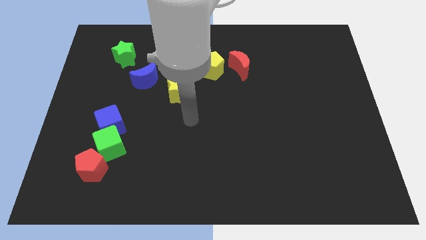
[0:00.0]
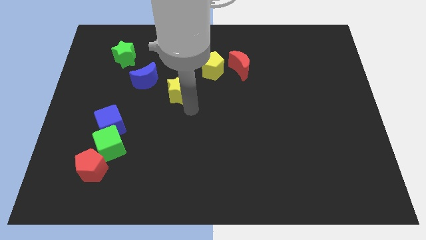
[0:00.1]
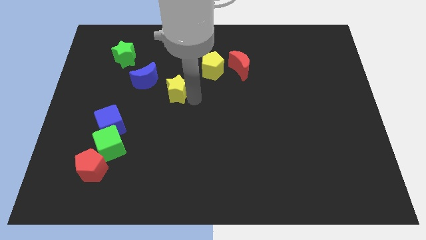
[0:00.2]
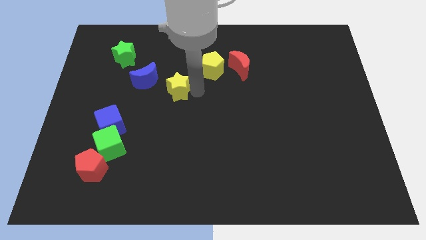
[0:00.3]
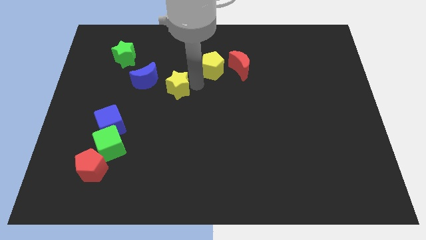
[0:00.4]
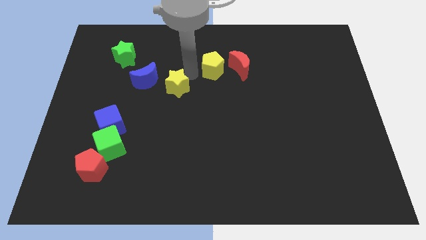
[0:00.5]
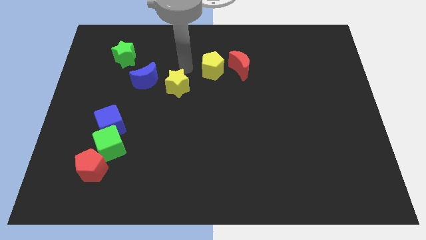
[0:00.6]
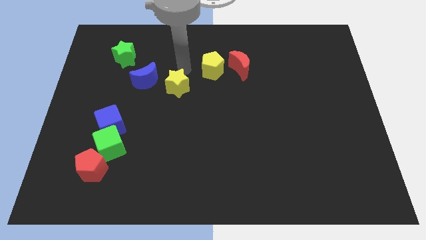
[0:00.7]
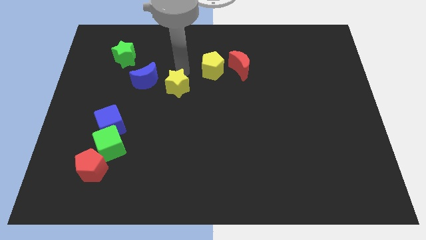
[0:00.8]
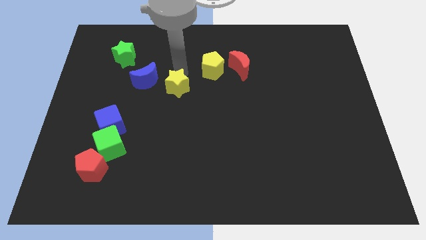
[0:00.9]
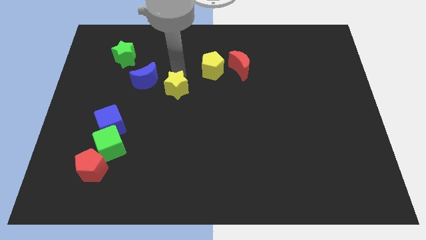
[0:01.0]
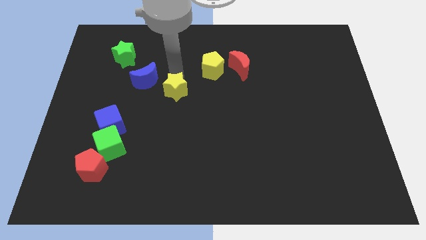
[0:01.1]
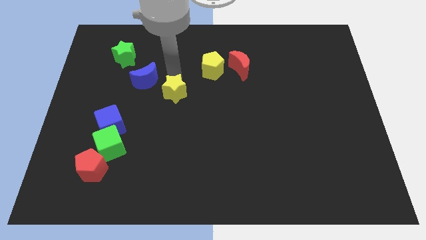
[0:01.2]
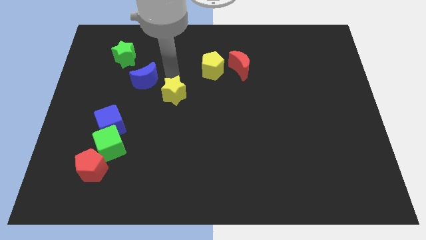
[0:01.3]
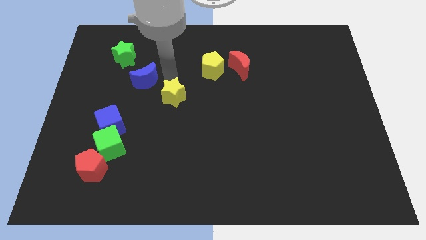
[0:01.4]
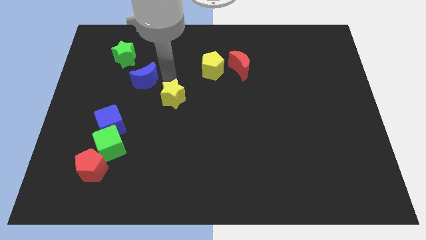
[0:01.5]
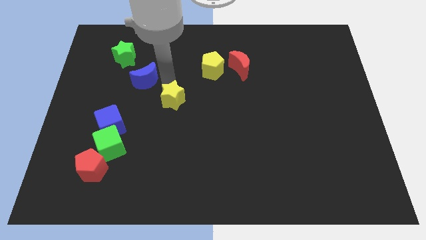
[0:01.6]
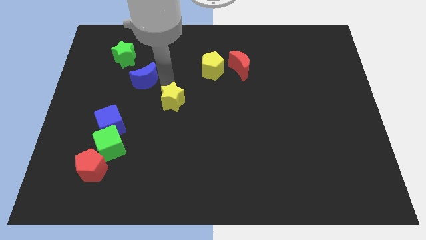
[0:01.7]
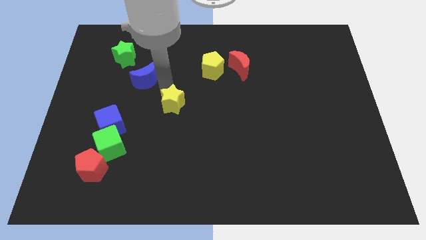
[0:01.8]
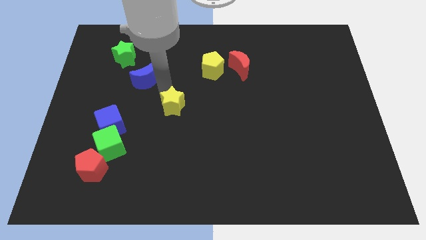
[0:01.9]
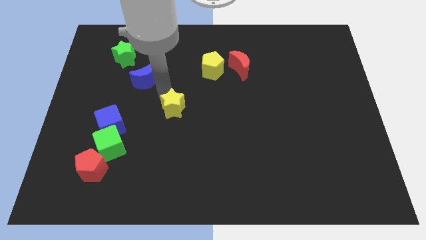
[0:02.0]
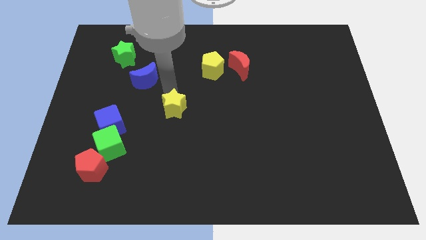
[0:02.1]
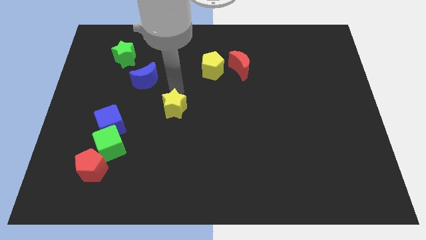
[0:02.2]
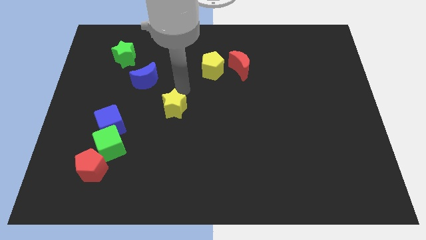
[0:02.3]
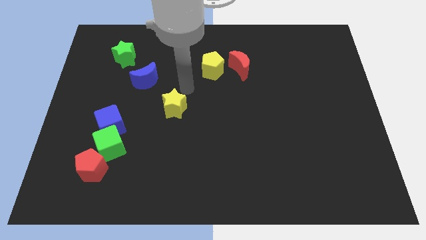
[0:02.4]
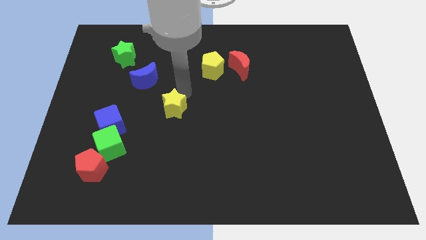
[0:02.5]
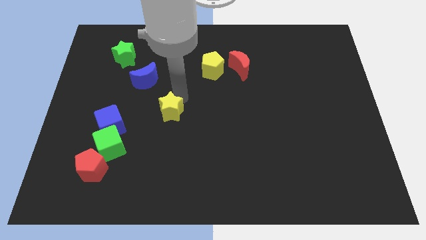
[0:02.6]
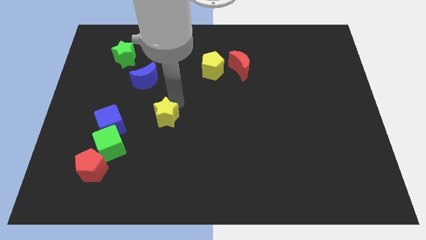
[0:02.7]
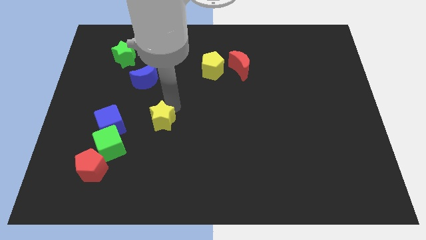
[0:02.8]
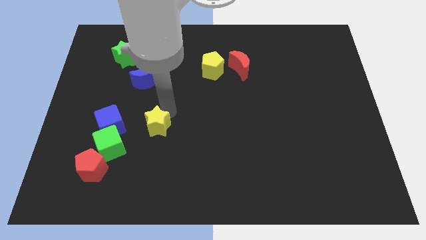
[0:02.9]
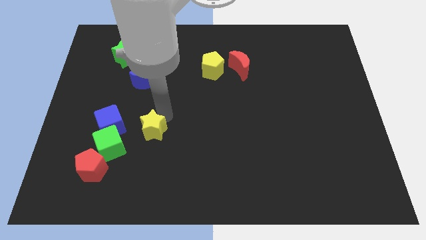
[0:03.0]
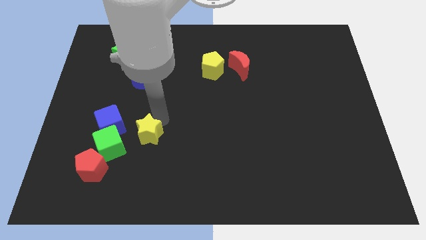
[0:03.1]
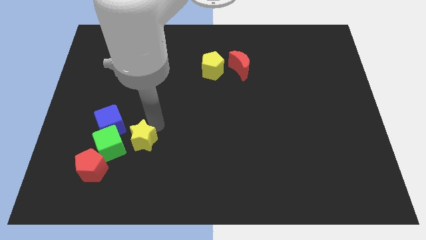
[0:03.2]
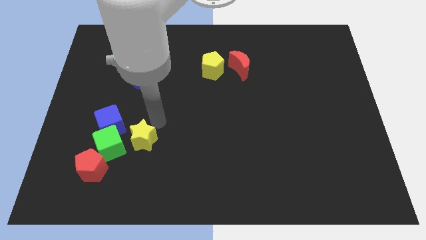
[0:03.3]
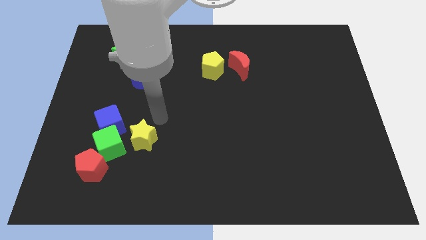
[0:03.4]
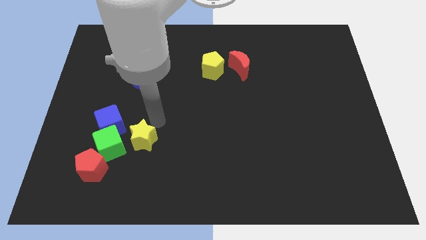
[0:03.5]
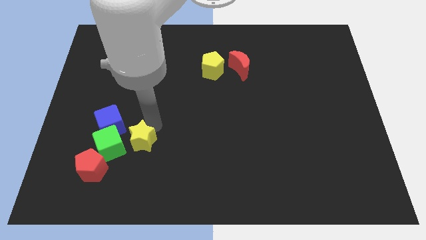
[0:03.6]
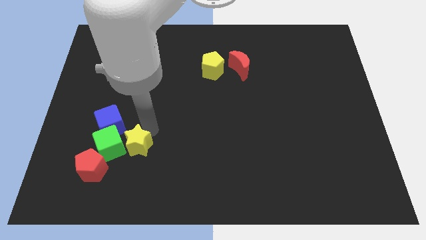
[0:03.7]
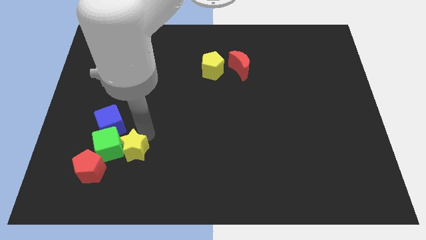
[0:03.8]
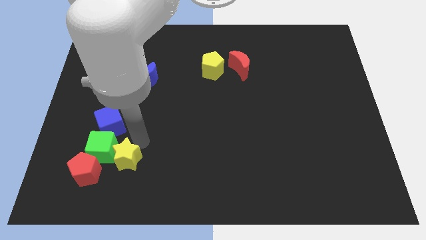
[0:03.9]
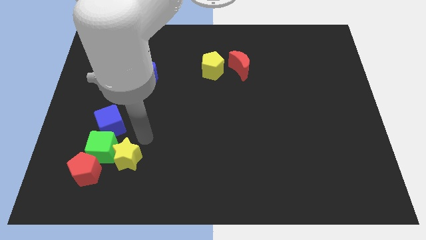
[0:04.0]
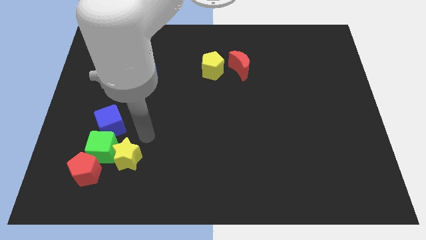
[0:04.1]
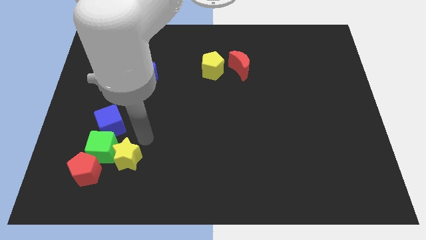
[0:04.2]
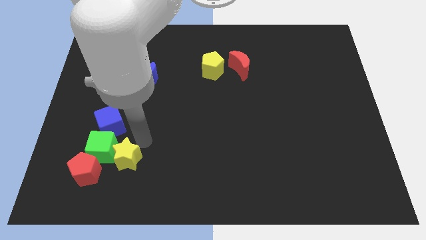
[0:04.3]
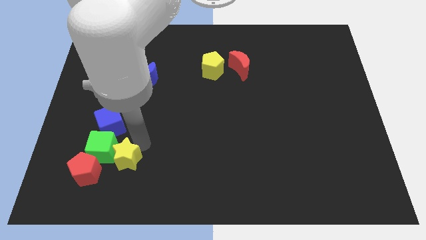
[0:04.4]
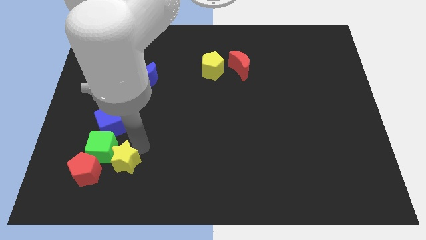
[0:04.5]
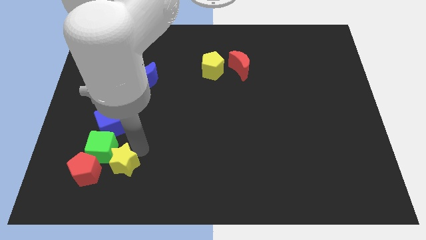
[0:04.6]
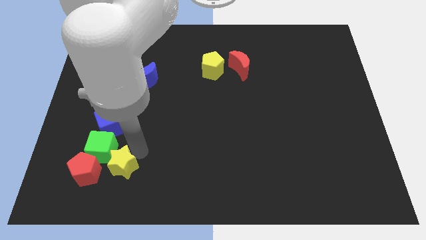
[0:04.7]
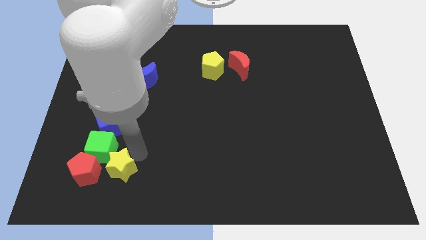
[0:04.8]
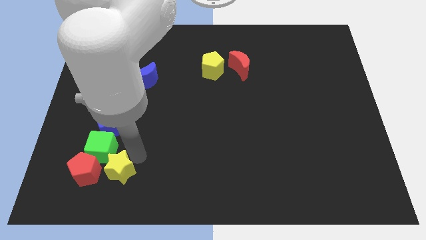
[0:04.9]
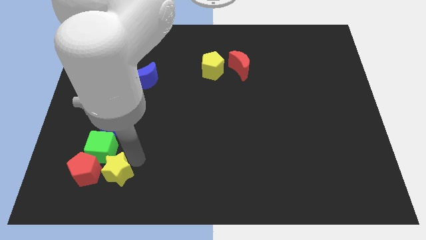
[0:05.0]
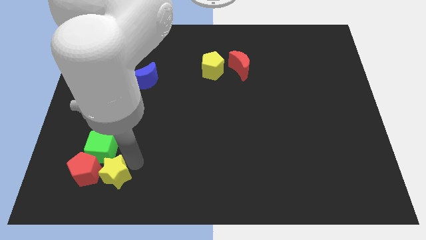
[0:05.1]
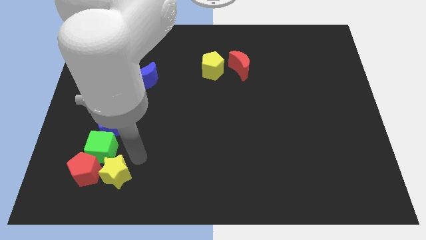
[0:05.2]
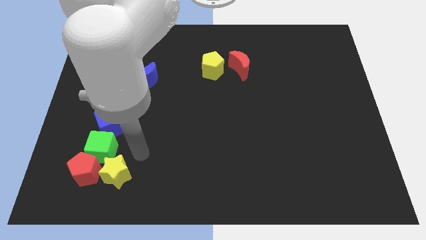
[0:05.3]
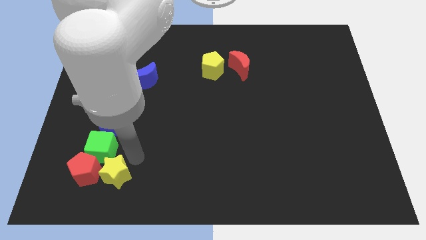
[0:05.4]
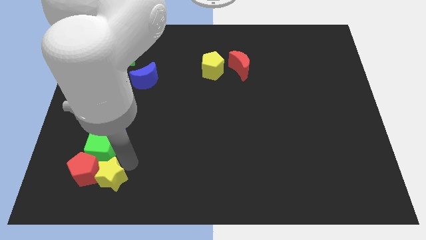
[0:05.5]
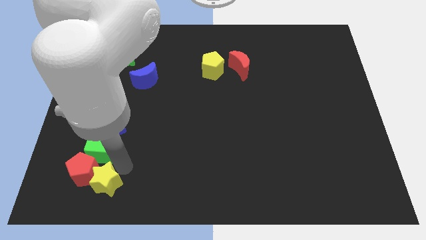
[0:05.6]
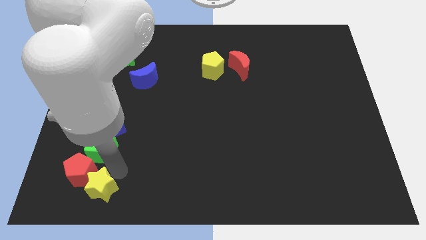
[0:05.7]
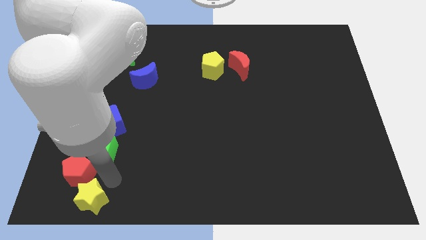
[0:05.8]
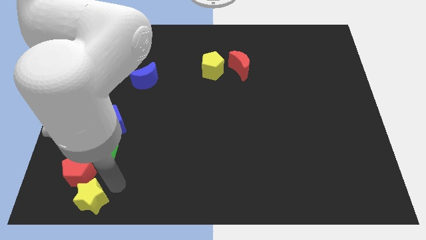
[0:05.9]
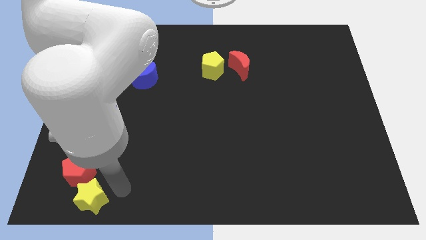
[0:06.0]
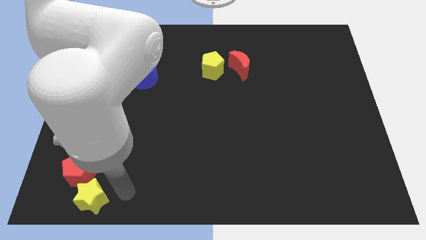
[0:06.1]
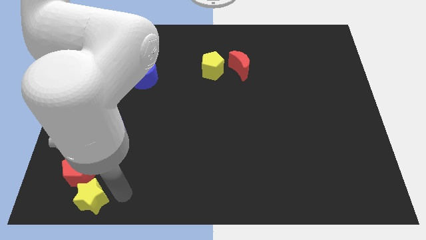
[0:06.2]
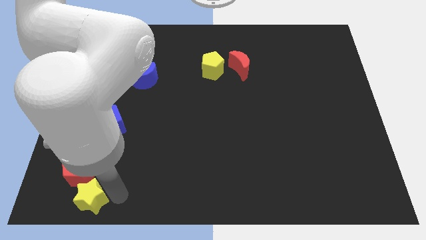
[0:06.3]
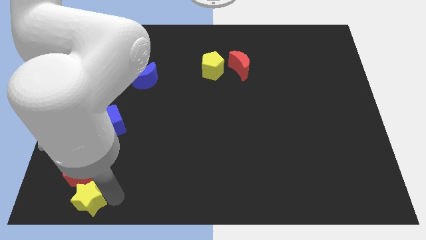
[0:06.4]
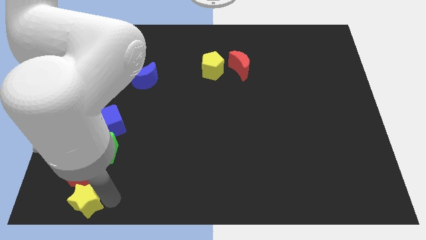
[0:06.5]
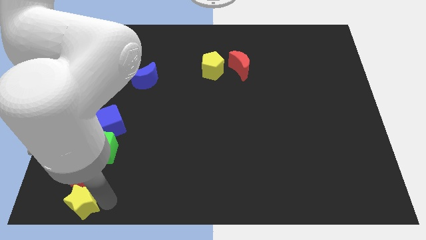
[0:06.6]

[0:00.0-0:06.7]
put the yellow star to the bottom left corner
